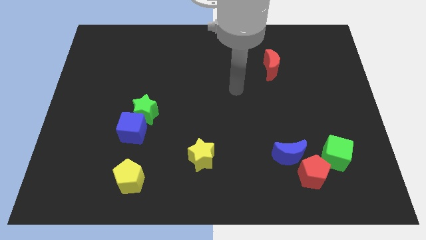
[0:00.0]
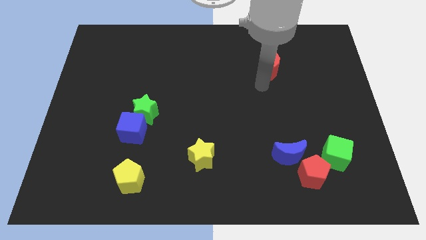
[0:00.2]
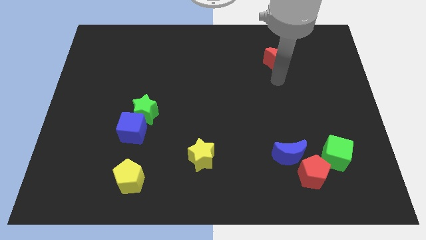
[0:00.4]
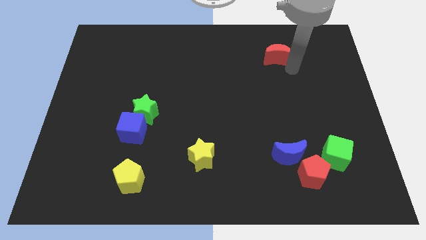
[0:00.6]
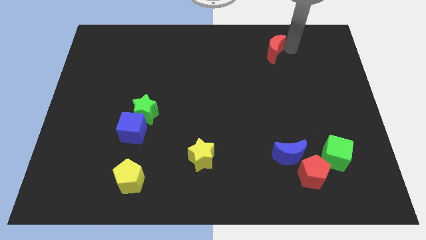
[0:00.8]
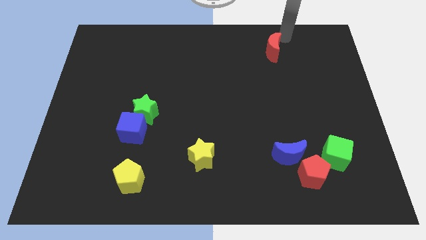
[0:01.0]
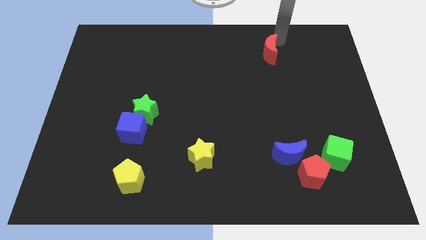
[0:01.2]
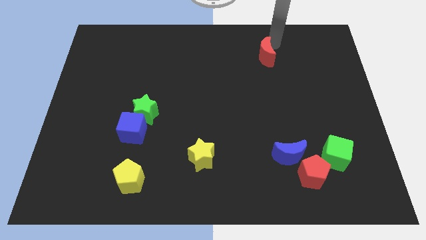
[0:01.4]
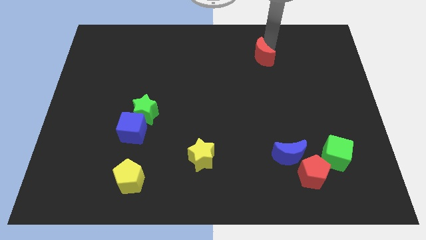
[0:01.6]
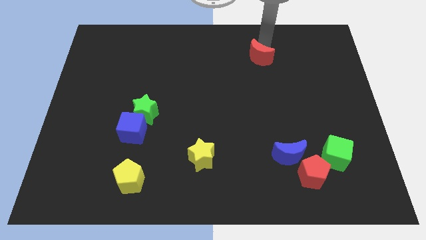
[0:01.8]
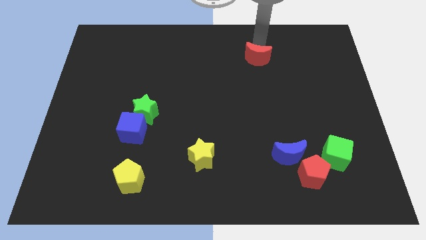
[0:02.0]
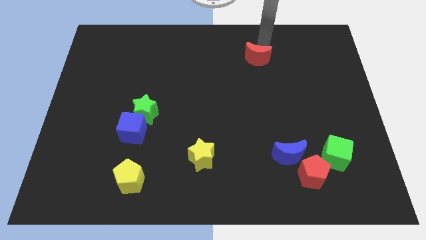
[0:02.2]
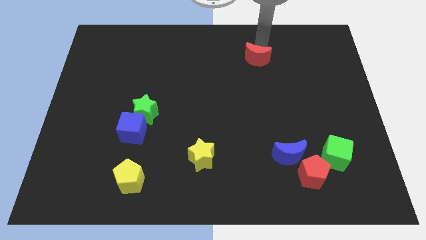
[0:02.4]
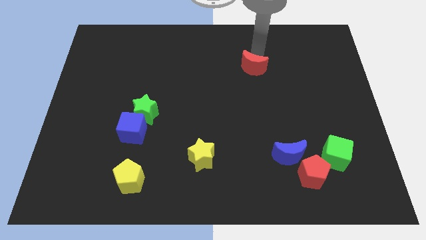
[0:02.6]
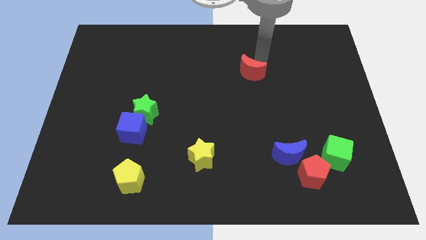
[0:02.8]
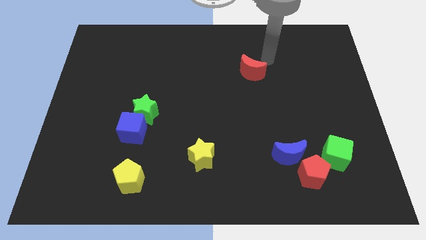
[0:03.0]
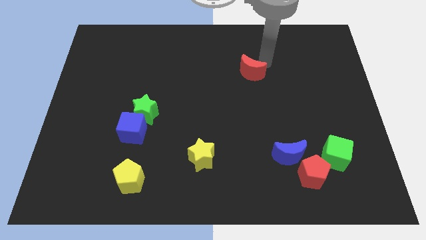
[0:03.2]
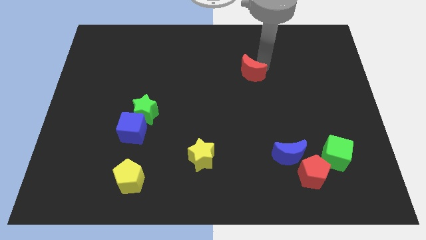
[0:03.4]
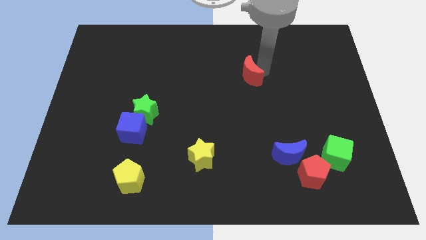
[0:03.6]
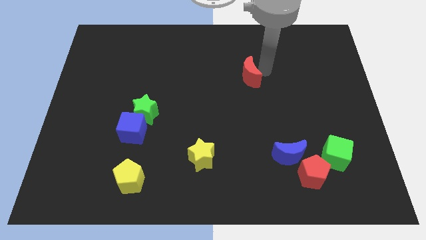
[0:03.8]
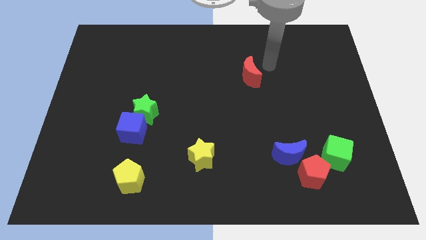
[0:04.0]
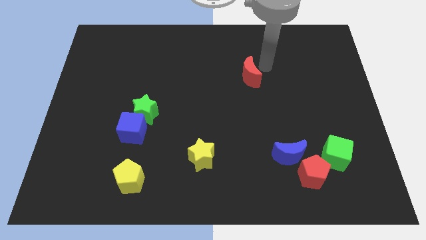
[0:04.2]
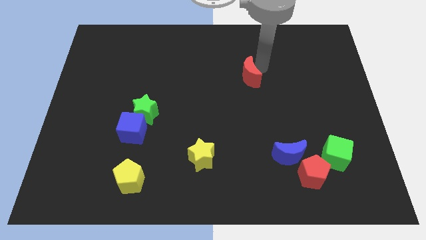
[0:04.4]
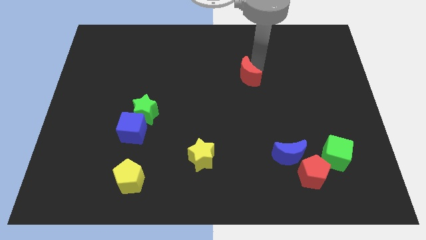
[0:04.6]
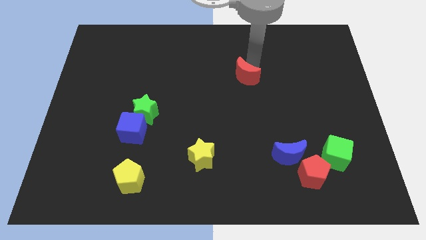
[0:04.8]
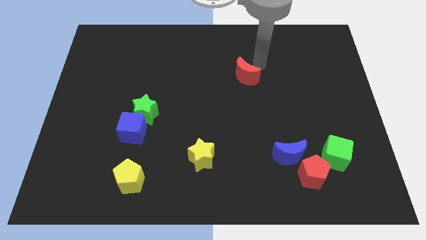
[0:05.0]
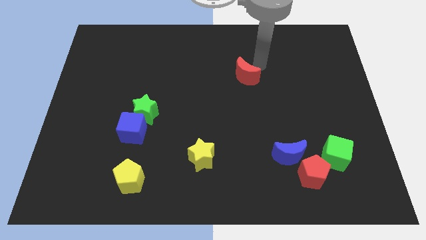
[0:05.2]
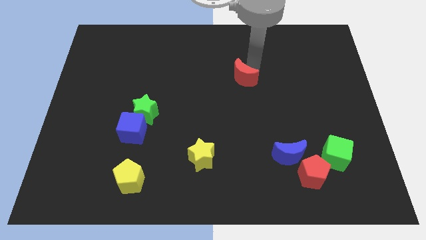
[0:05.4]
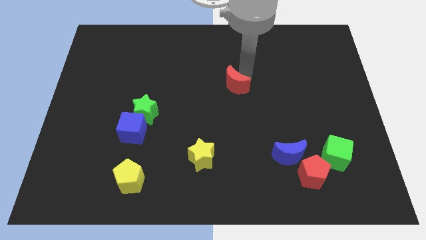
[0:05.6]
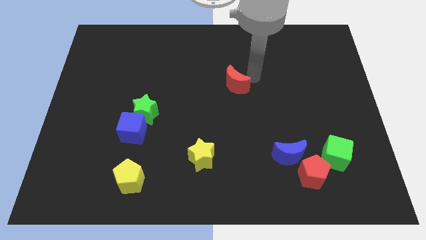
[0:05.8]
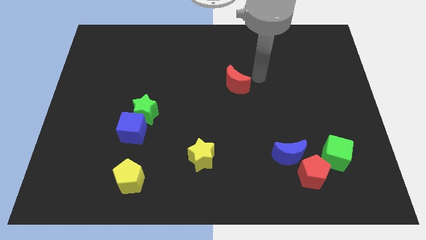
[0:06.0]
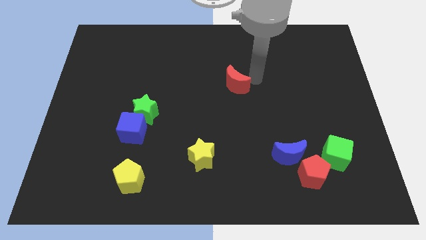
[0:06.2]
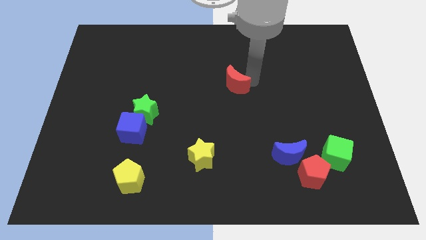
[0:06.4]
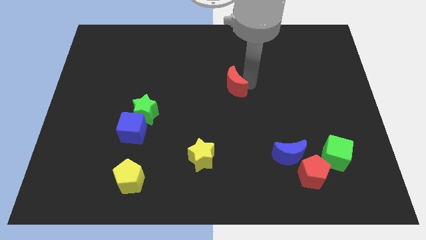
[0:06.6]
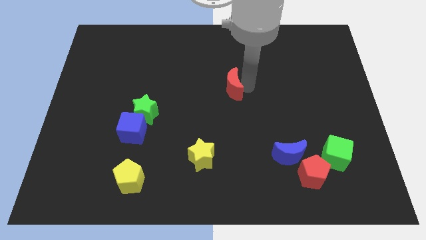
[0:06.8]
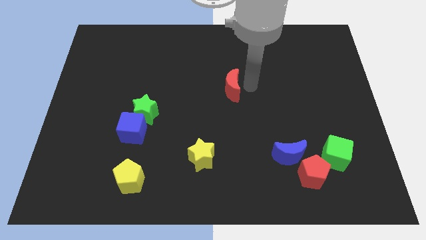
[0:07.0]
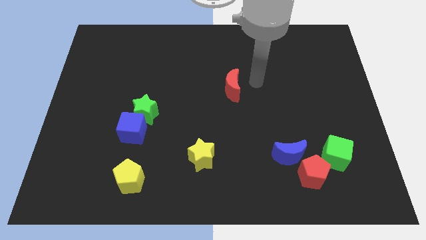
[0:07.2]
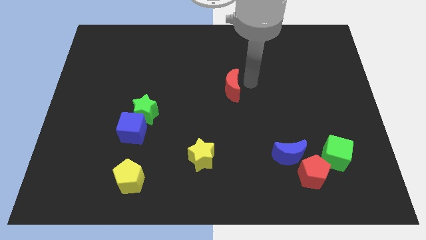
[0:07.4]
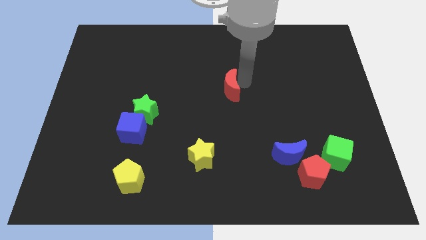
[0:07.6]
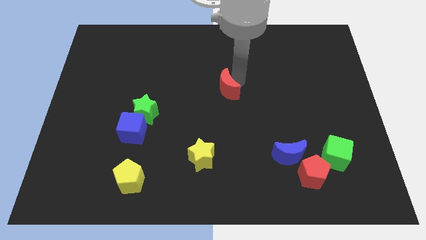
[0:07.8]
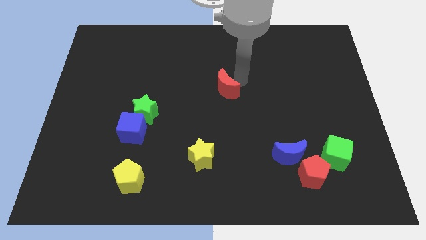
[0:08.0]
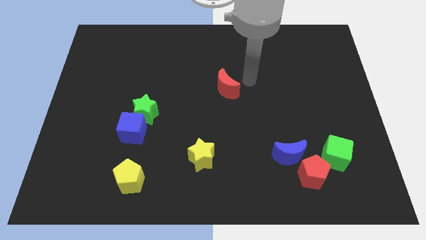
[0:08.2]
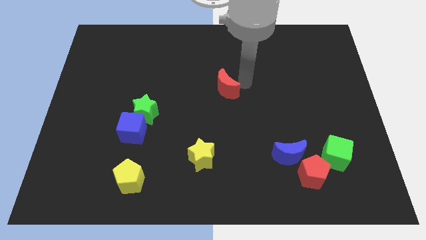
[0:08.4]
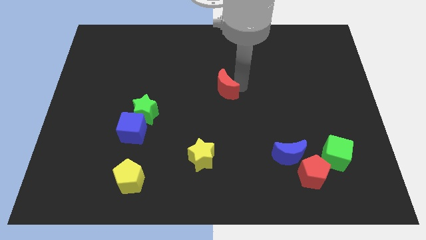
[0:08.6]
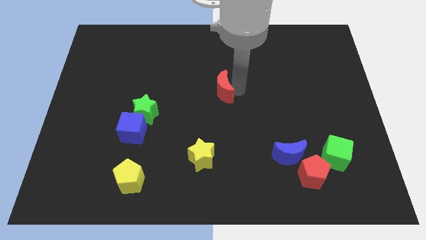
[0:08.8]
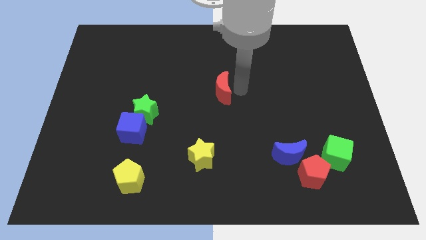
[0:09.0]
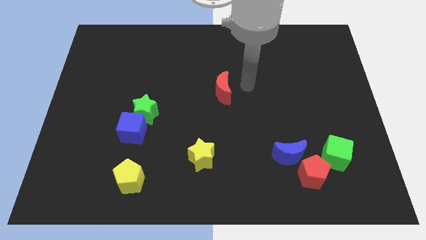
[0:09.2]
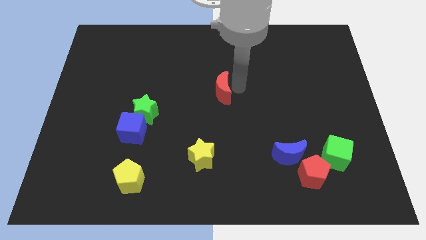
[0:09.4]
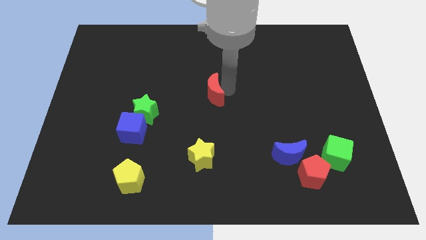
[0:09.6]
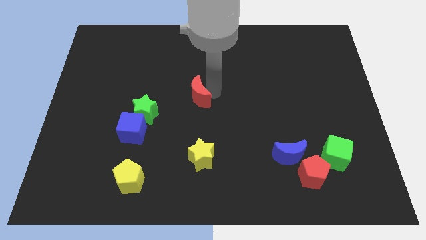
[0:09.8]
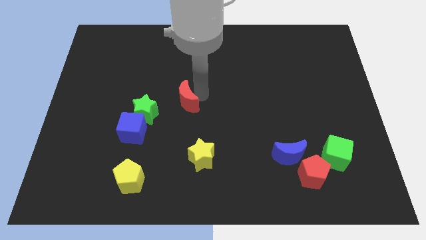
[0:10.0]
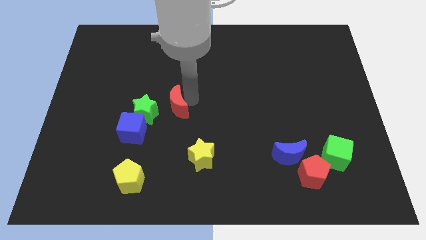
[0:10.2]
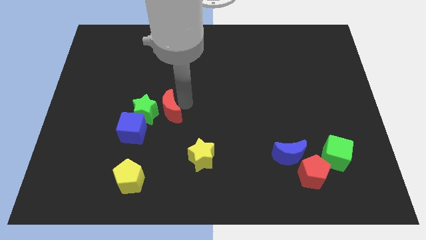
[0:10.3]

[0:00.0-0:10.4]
put the red moon towards the green star

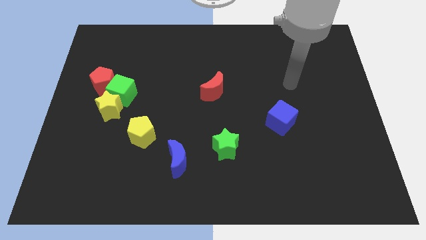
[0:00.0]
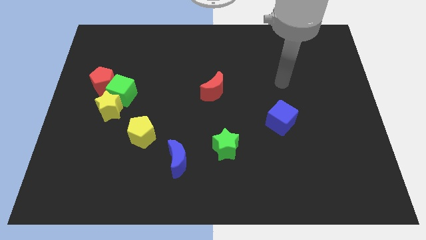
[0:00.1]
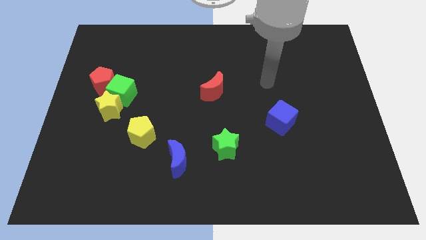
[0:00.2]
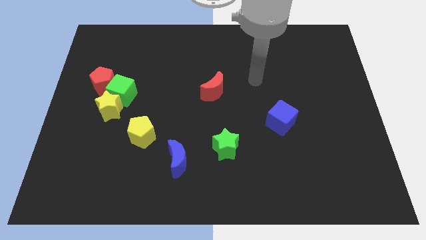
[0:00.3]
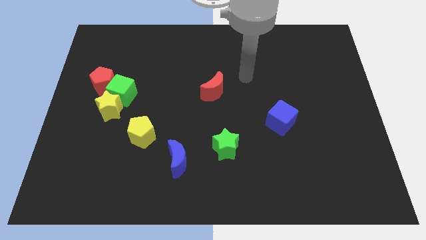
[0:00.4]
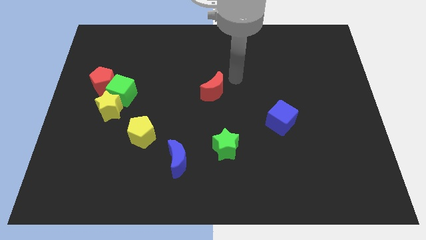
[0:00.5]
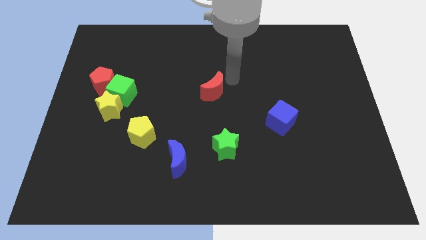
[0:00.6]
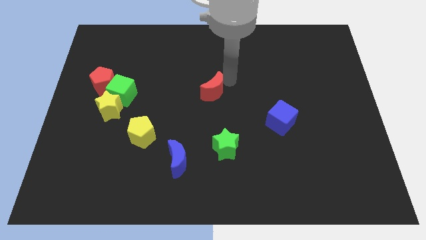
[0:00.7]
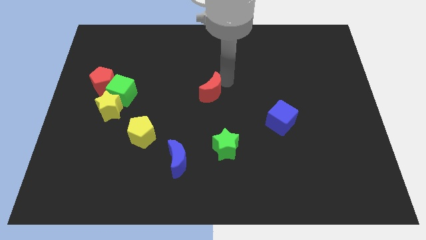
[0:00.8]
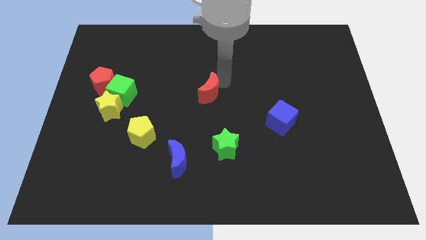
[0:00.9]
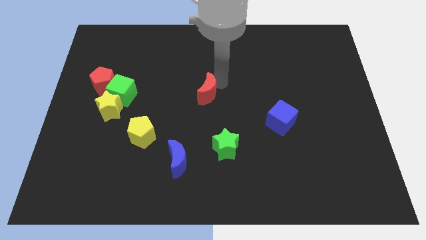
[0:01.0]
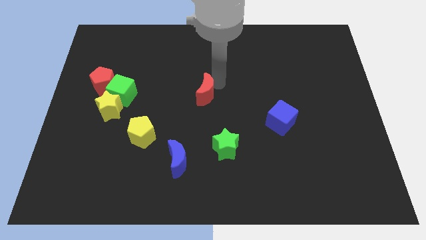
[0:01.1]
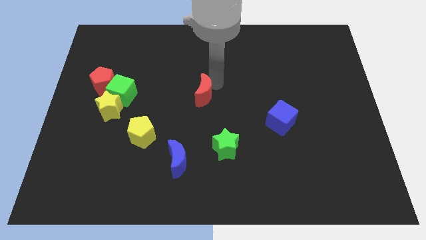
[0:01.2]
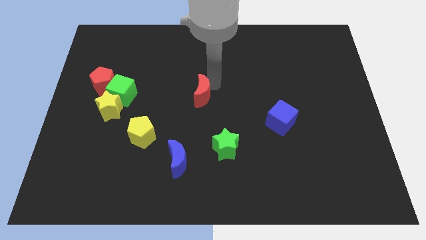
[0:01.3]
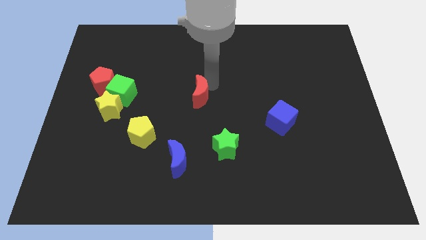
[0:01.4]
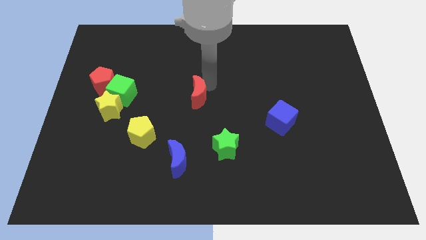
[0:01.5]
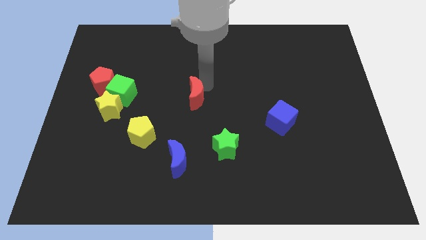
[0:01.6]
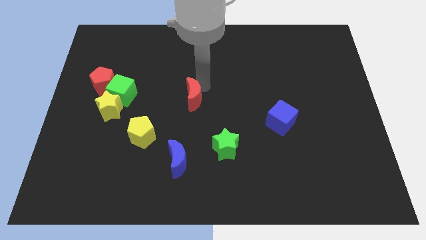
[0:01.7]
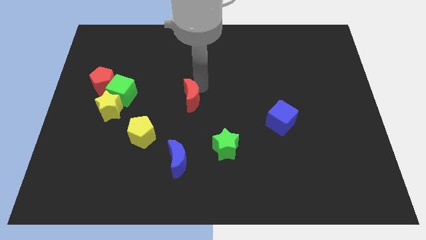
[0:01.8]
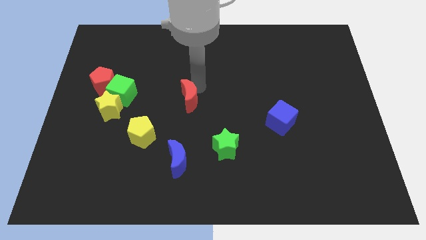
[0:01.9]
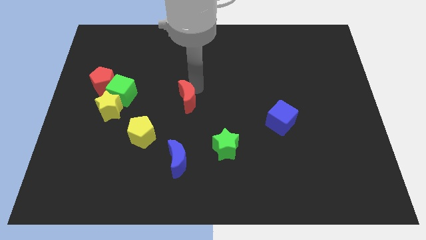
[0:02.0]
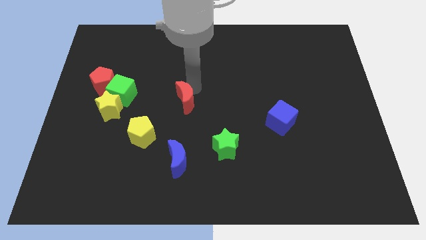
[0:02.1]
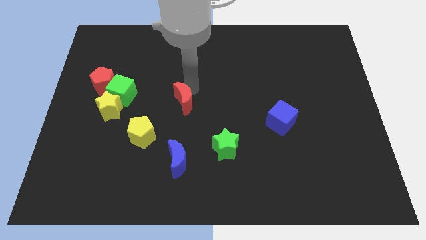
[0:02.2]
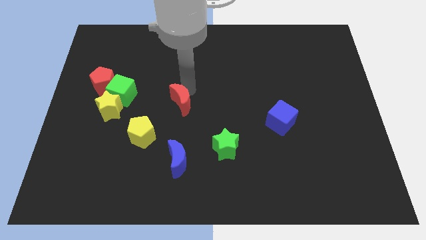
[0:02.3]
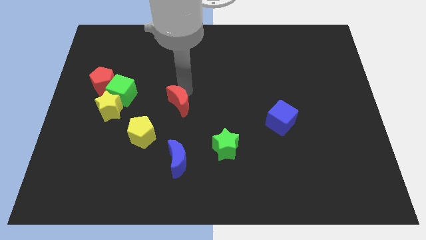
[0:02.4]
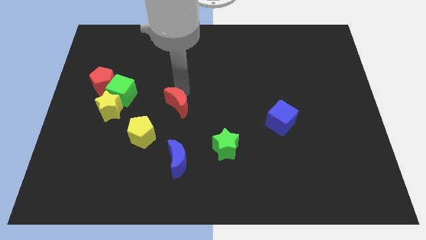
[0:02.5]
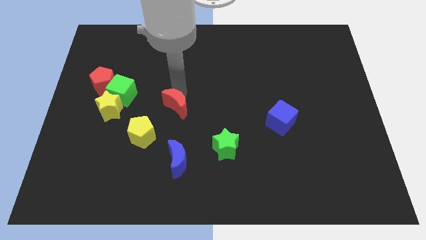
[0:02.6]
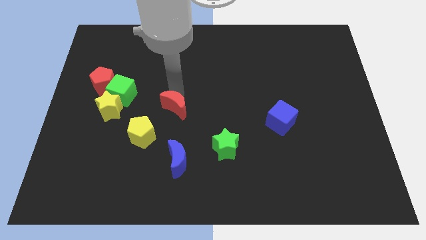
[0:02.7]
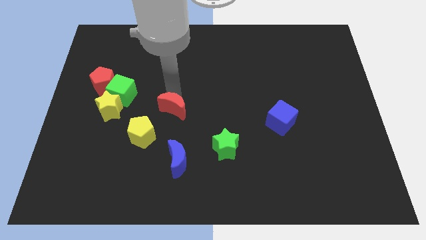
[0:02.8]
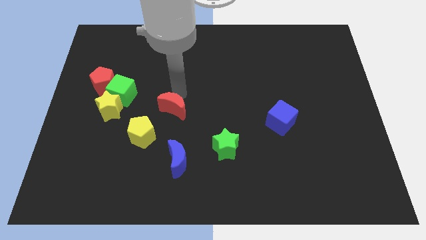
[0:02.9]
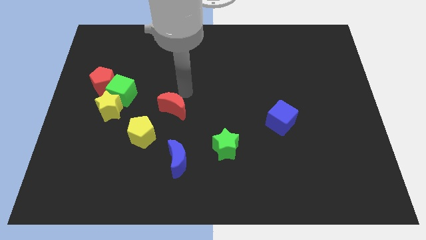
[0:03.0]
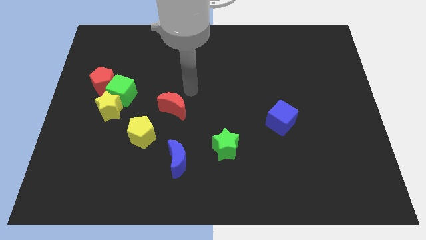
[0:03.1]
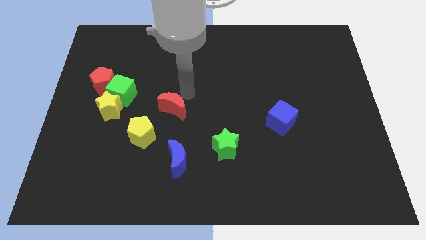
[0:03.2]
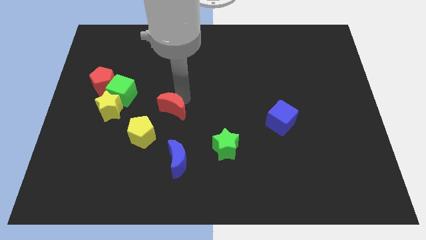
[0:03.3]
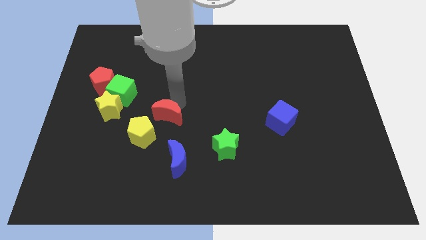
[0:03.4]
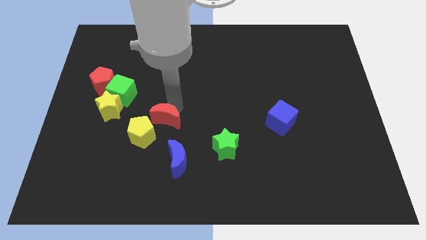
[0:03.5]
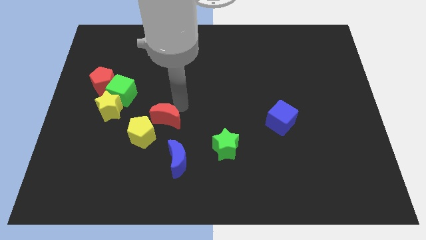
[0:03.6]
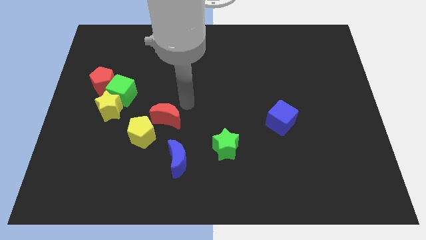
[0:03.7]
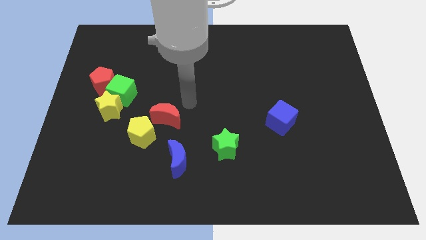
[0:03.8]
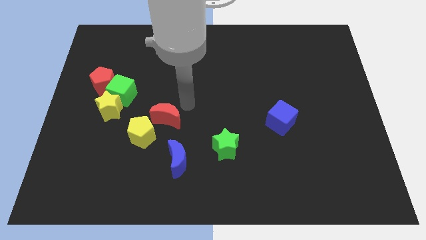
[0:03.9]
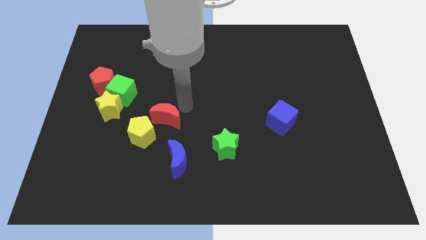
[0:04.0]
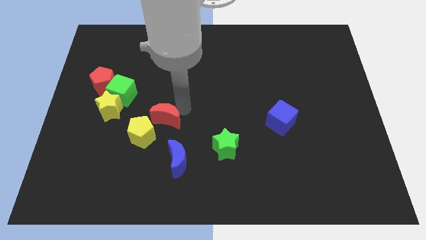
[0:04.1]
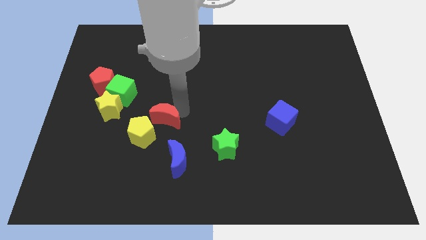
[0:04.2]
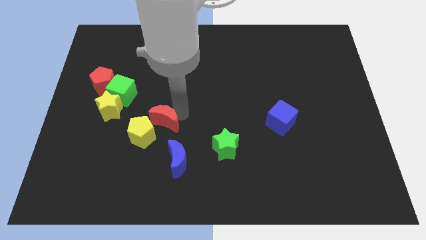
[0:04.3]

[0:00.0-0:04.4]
move the red moon close to the yellow pentagon
